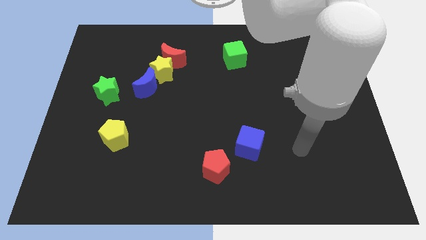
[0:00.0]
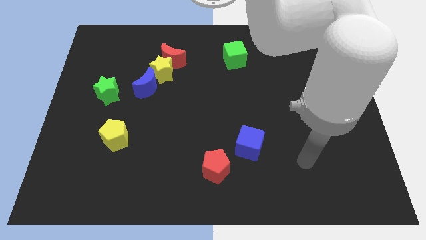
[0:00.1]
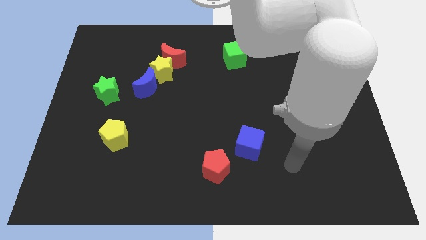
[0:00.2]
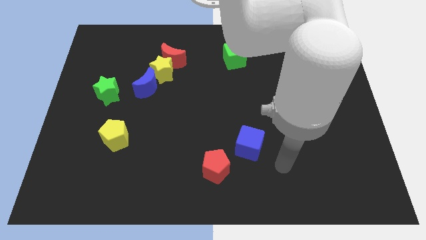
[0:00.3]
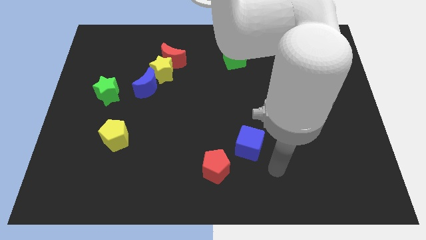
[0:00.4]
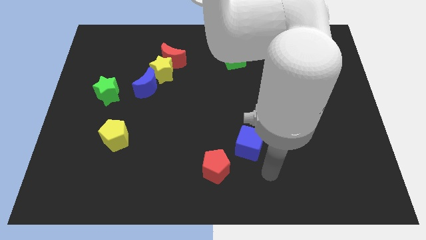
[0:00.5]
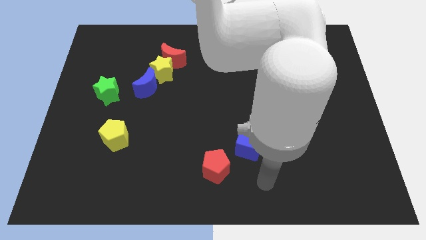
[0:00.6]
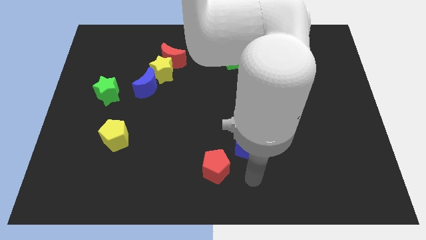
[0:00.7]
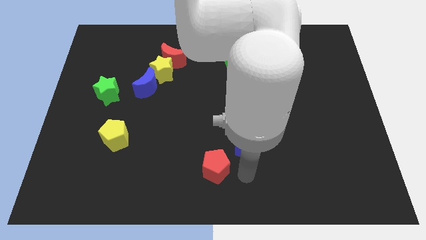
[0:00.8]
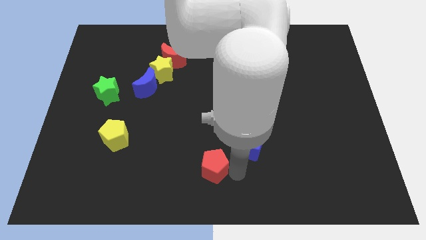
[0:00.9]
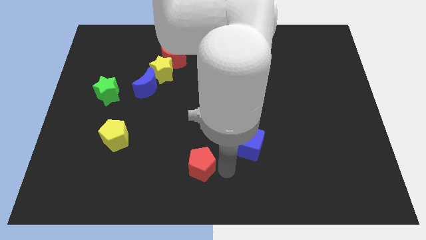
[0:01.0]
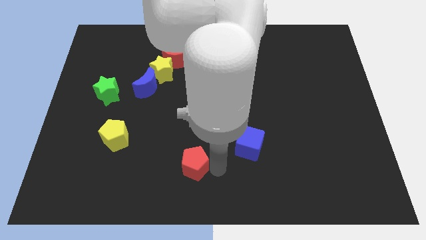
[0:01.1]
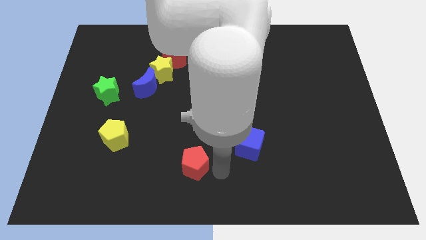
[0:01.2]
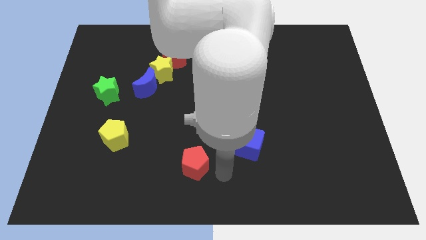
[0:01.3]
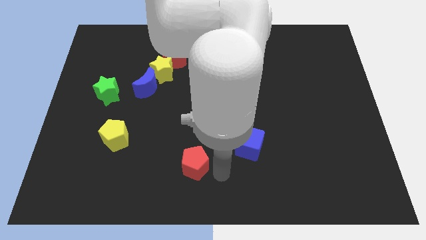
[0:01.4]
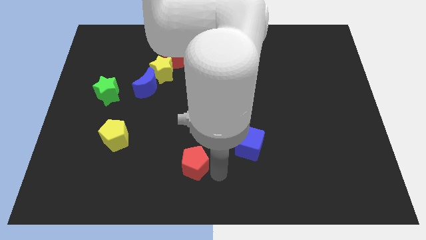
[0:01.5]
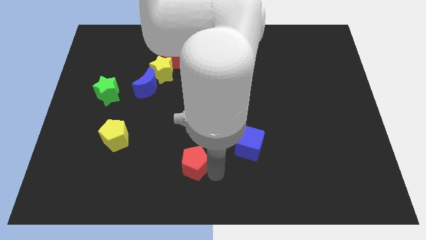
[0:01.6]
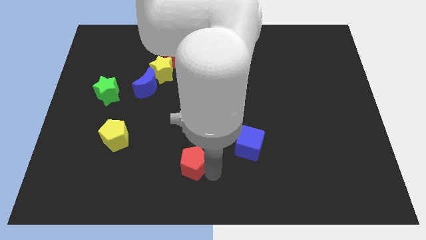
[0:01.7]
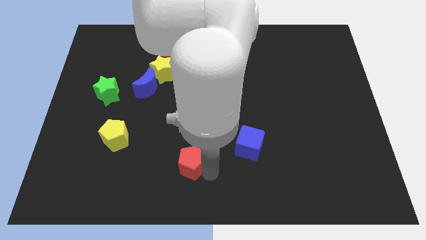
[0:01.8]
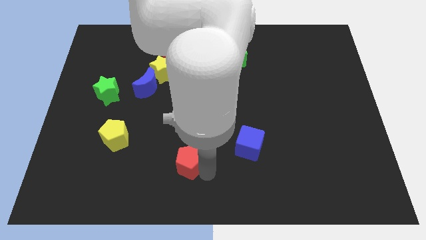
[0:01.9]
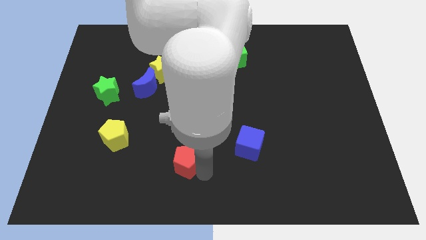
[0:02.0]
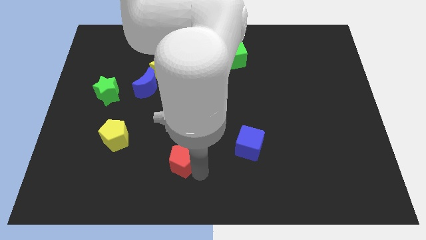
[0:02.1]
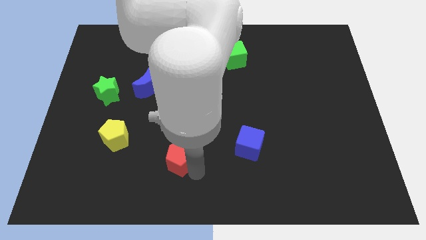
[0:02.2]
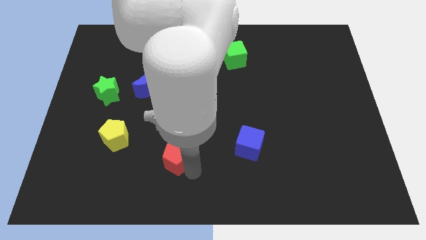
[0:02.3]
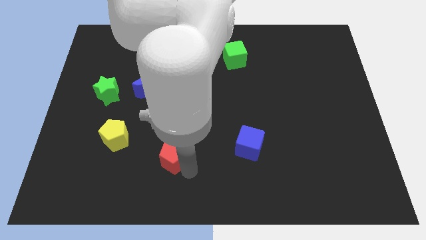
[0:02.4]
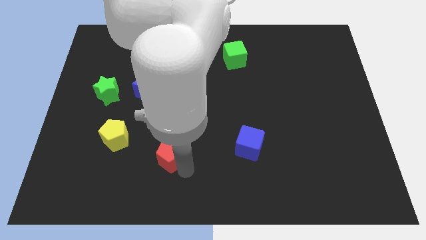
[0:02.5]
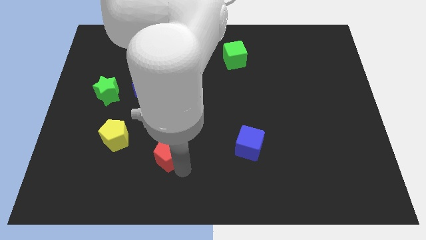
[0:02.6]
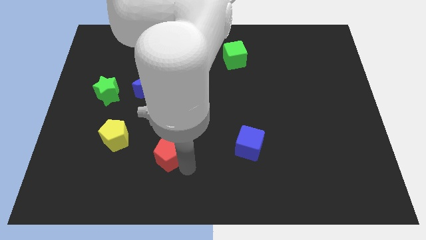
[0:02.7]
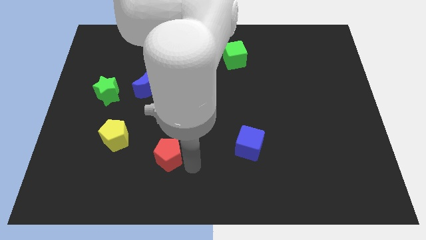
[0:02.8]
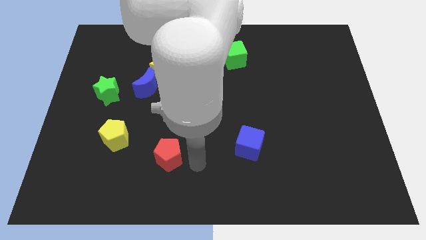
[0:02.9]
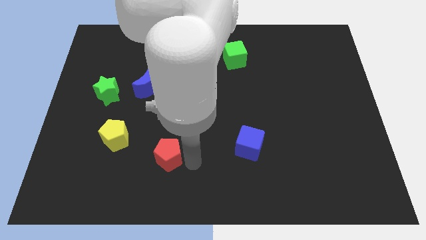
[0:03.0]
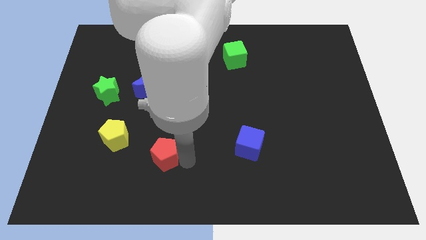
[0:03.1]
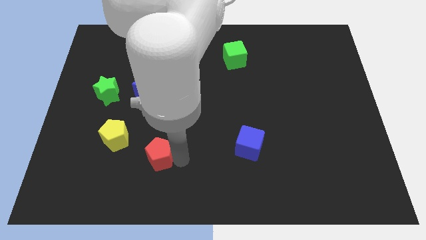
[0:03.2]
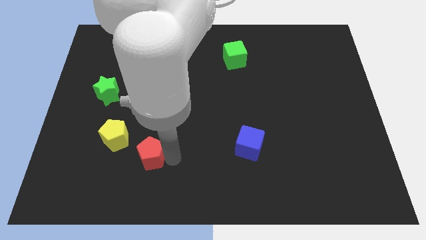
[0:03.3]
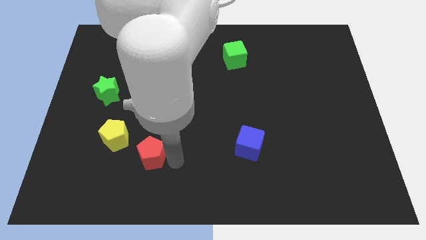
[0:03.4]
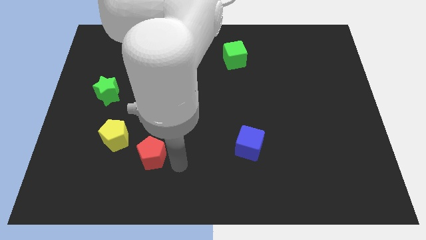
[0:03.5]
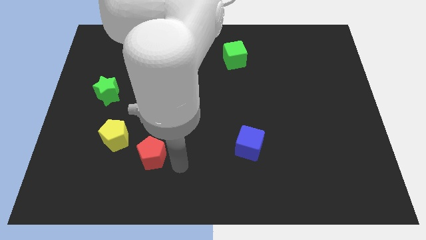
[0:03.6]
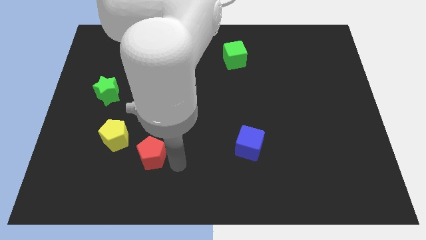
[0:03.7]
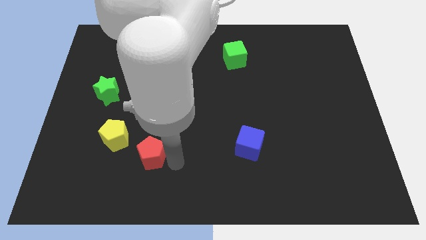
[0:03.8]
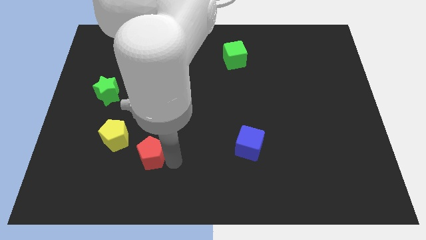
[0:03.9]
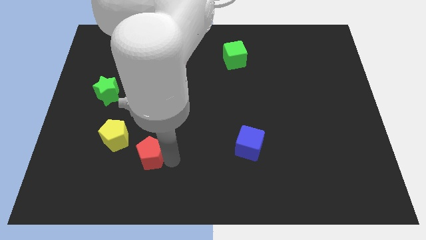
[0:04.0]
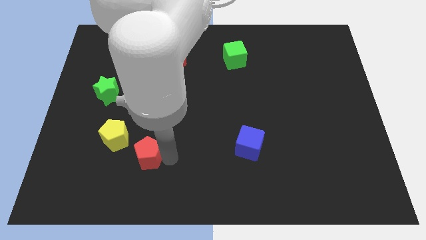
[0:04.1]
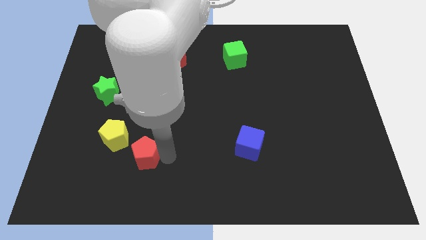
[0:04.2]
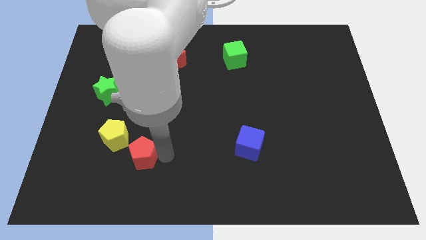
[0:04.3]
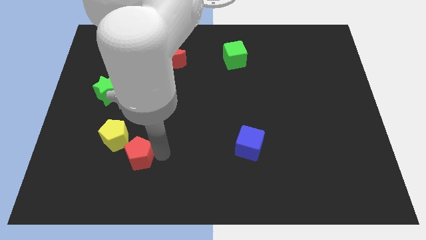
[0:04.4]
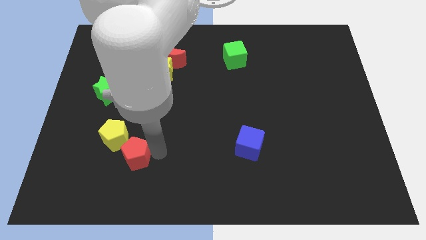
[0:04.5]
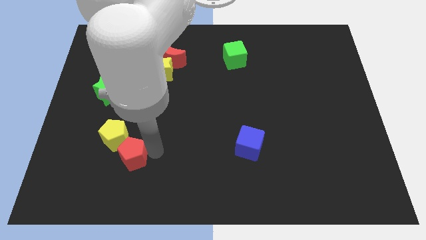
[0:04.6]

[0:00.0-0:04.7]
push the red pentagon close to the yellow pentagon

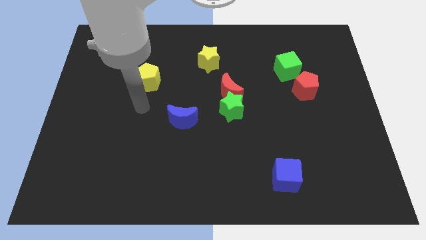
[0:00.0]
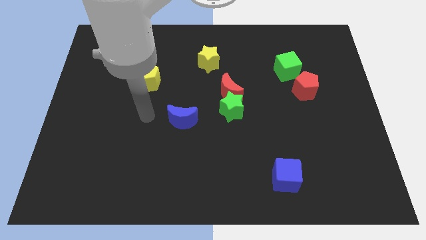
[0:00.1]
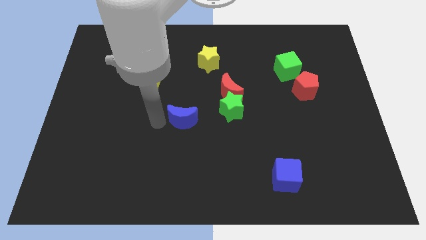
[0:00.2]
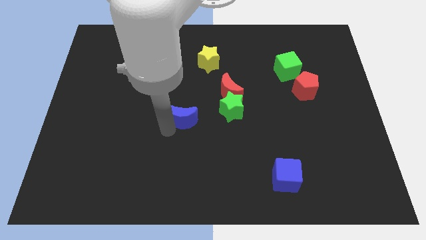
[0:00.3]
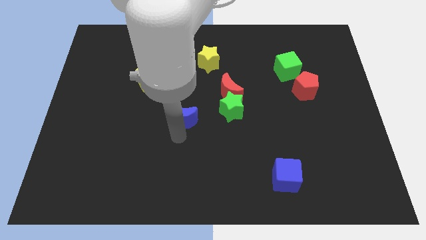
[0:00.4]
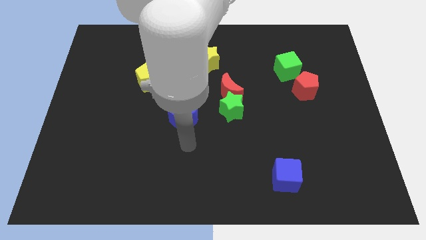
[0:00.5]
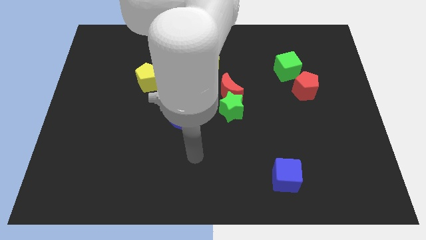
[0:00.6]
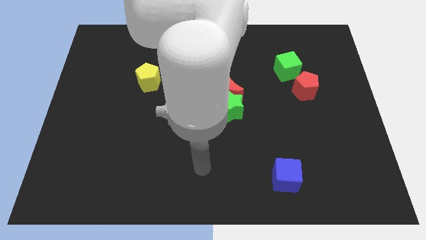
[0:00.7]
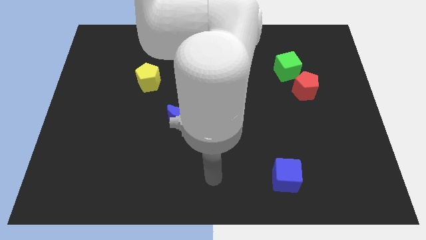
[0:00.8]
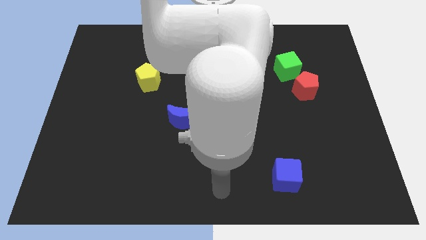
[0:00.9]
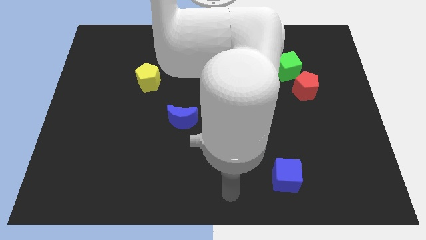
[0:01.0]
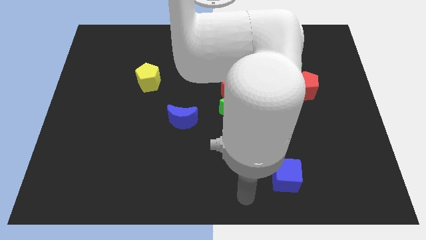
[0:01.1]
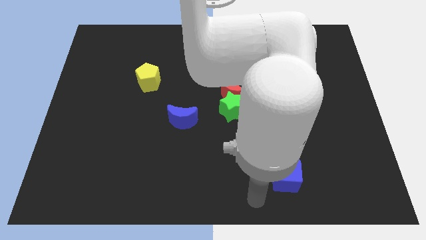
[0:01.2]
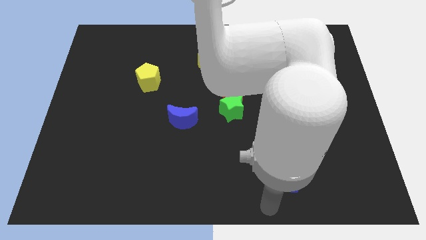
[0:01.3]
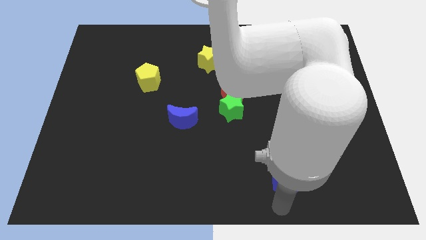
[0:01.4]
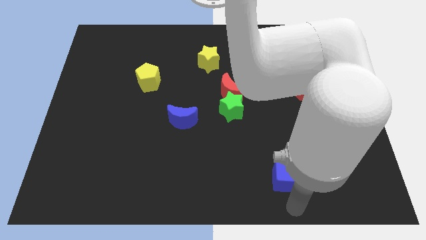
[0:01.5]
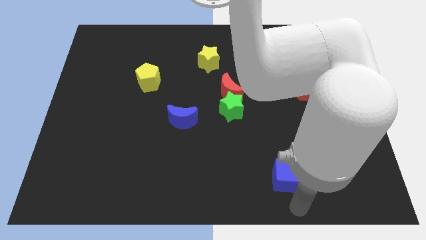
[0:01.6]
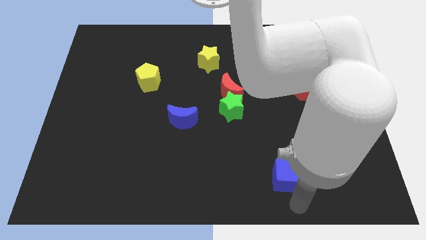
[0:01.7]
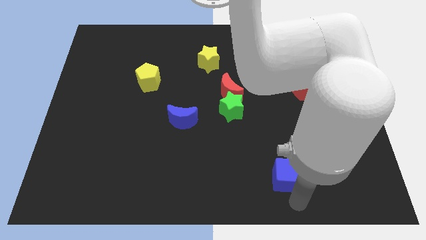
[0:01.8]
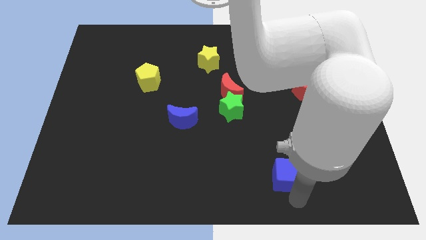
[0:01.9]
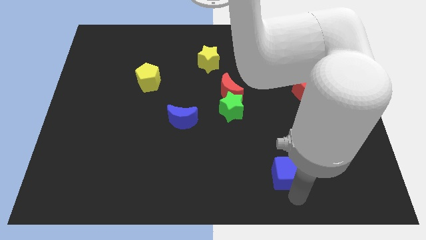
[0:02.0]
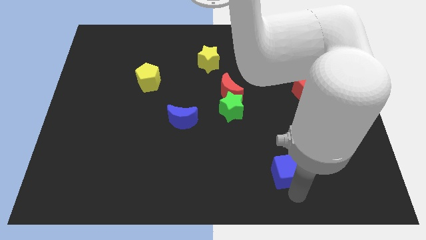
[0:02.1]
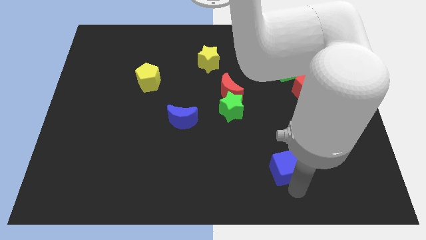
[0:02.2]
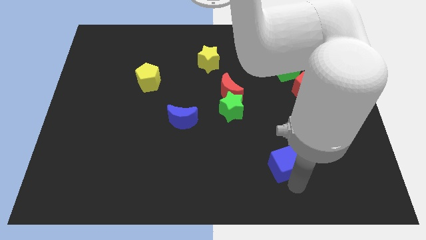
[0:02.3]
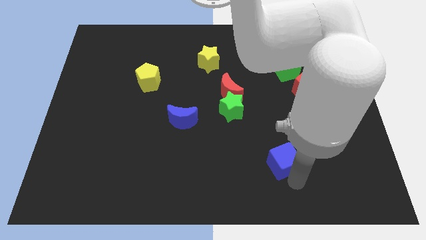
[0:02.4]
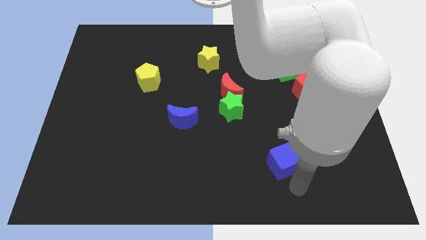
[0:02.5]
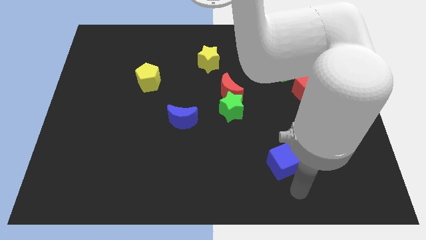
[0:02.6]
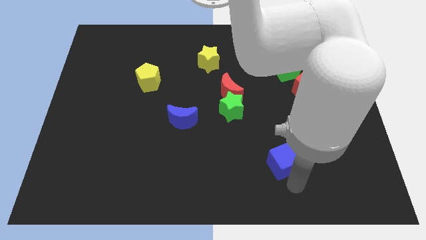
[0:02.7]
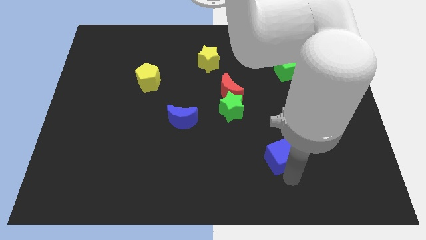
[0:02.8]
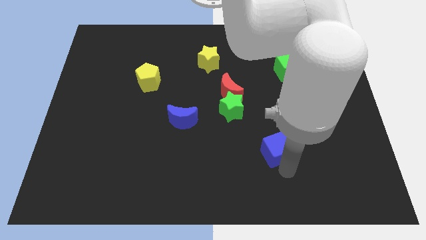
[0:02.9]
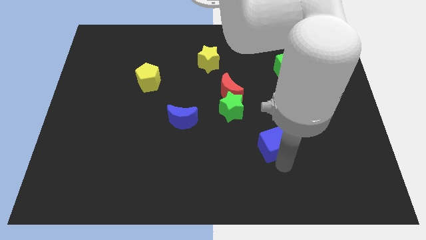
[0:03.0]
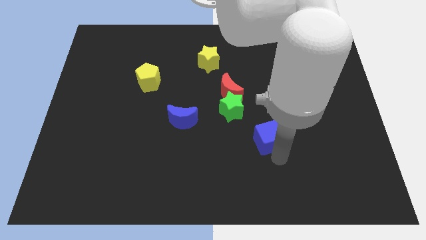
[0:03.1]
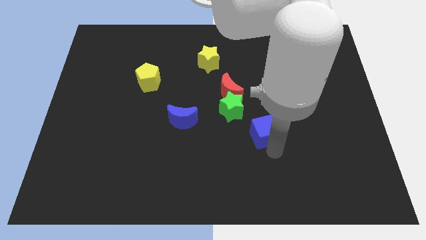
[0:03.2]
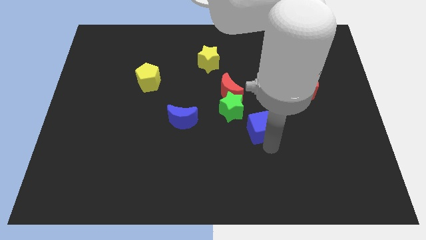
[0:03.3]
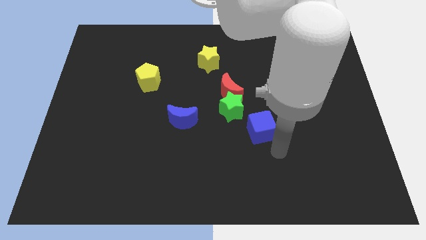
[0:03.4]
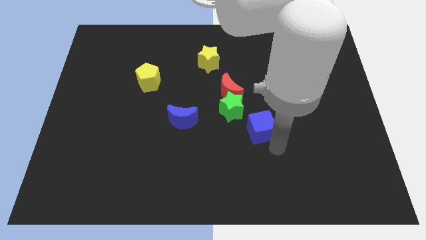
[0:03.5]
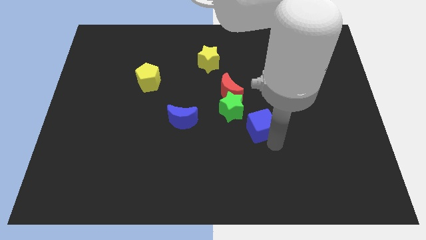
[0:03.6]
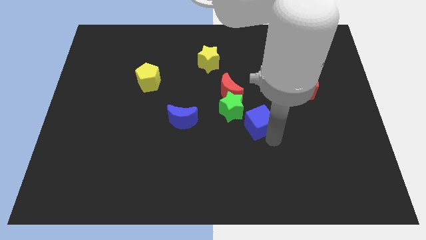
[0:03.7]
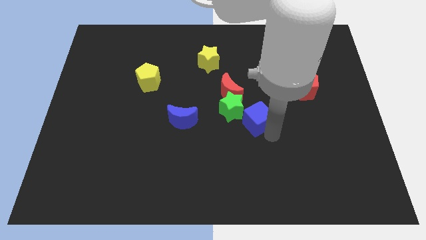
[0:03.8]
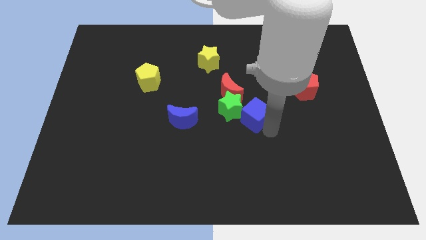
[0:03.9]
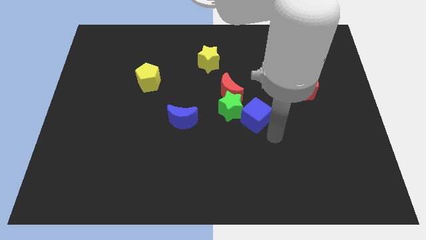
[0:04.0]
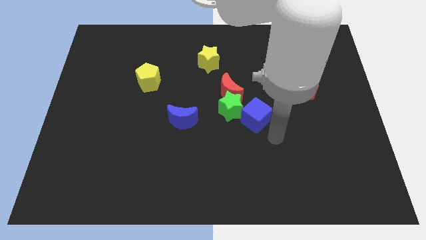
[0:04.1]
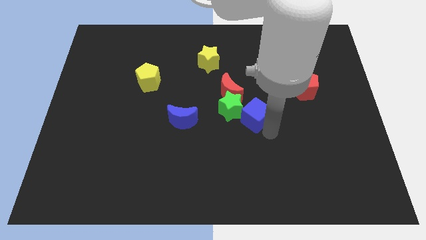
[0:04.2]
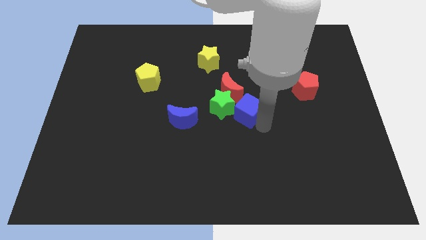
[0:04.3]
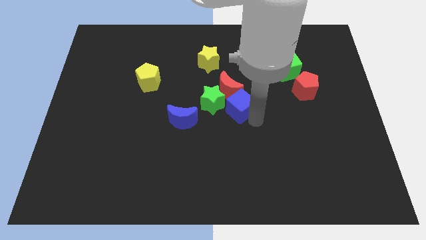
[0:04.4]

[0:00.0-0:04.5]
move the blue cube towards the red moon
